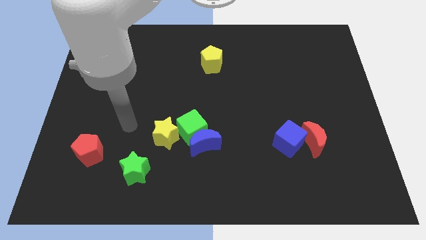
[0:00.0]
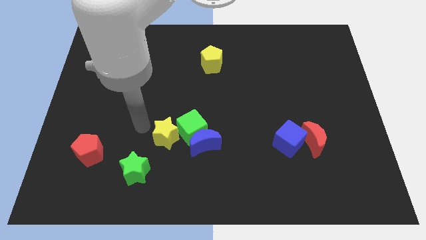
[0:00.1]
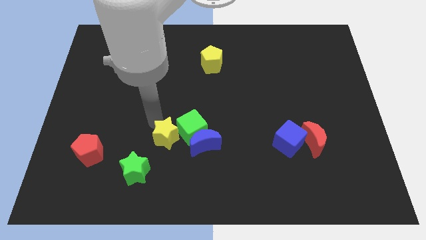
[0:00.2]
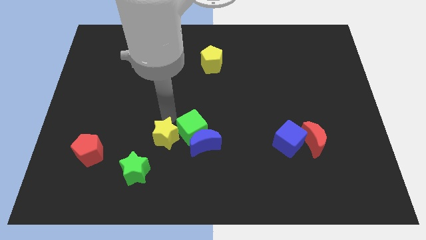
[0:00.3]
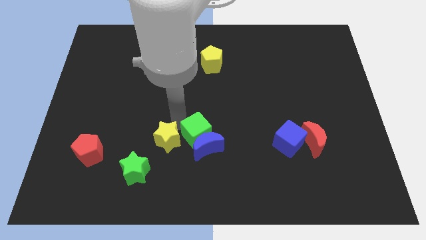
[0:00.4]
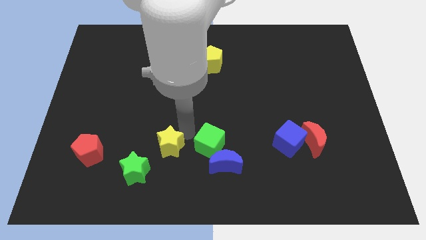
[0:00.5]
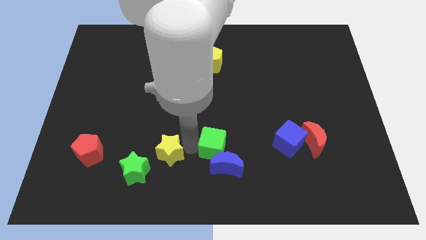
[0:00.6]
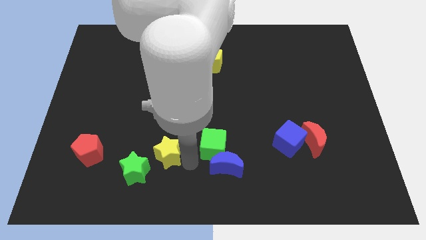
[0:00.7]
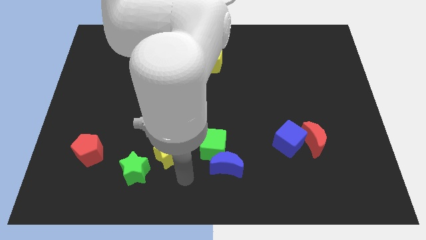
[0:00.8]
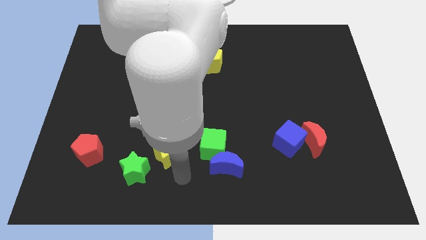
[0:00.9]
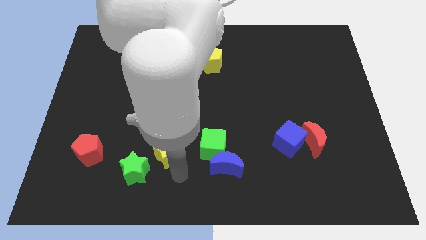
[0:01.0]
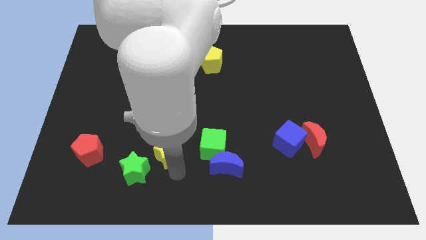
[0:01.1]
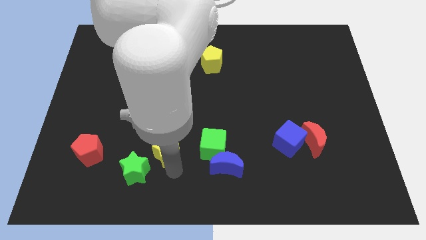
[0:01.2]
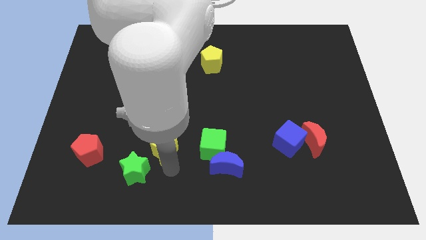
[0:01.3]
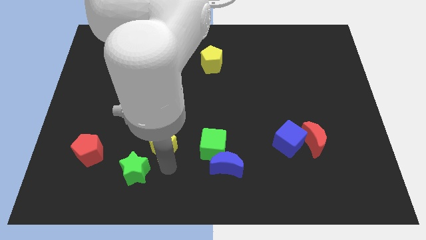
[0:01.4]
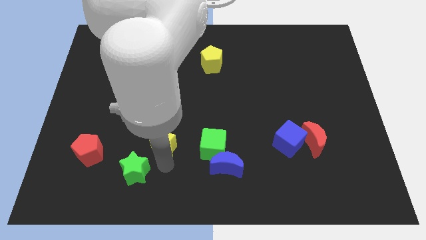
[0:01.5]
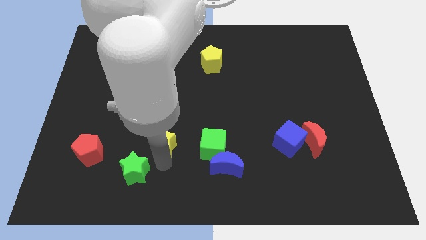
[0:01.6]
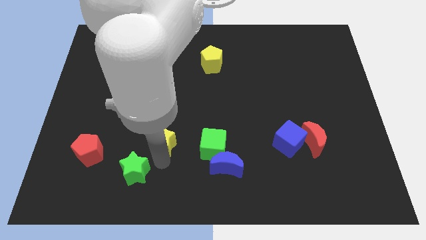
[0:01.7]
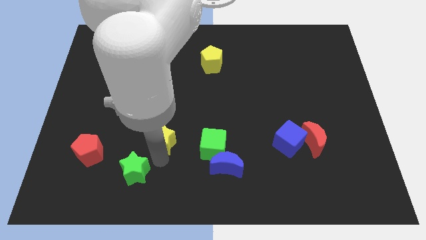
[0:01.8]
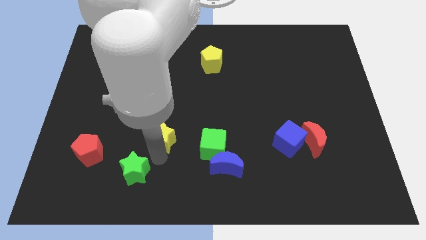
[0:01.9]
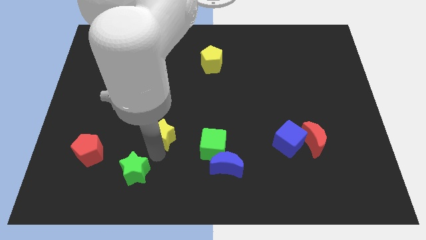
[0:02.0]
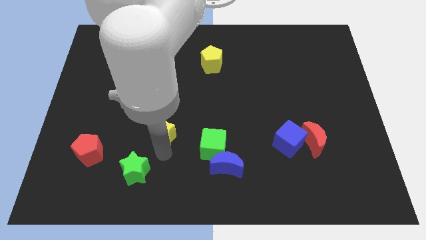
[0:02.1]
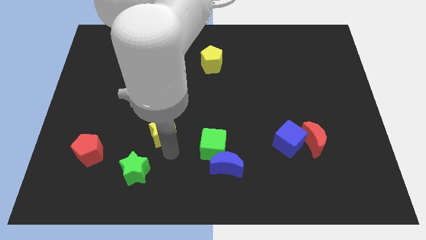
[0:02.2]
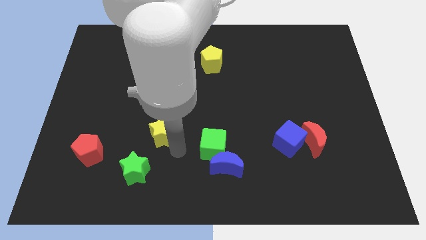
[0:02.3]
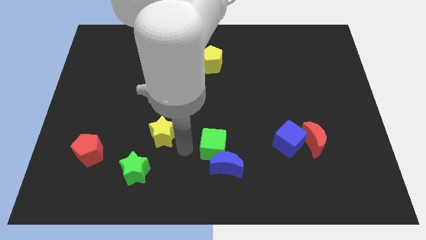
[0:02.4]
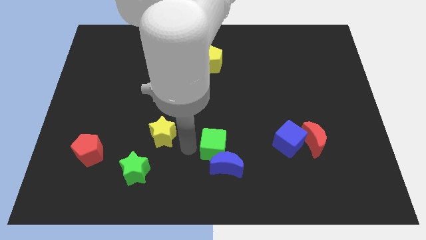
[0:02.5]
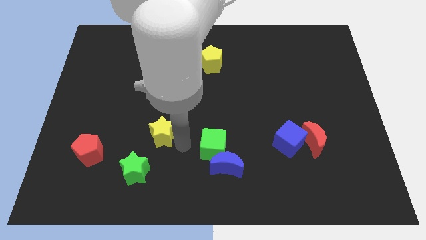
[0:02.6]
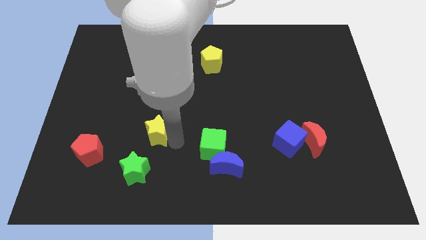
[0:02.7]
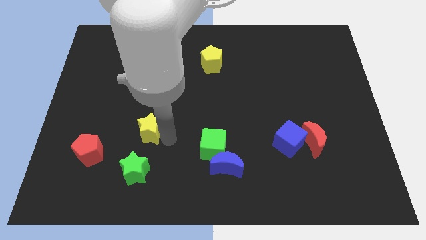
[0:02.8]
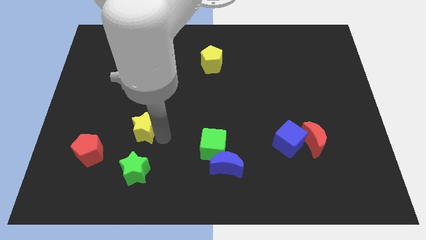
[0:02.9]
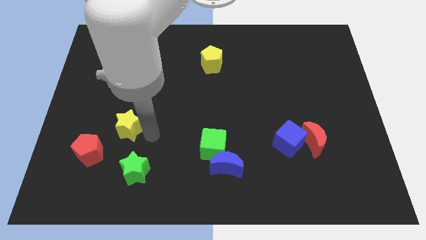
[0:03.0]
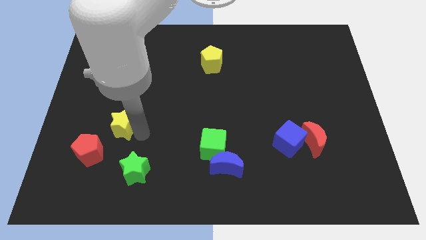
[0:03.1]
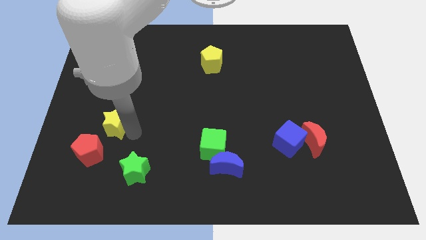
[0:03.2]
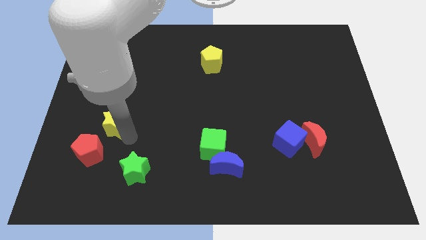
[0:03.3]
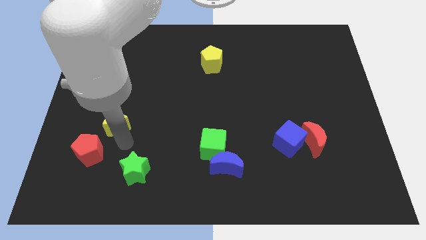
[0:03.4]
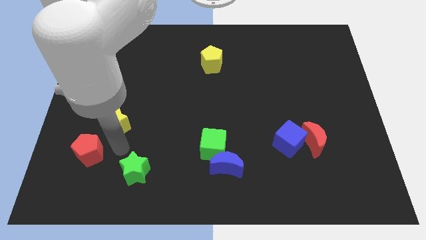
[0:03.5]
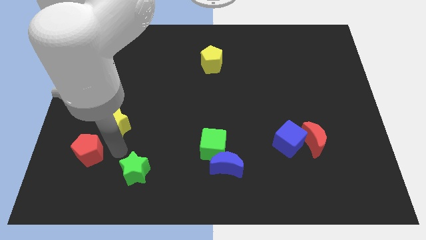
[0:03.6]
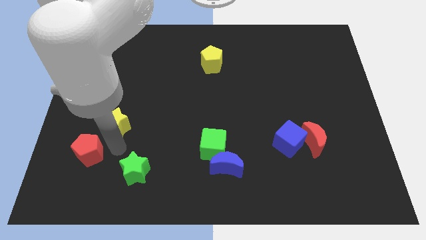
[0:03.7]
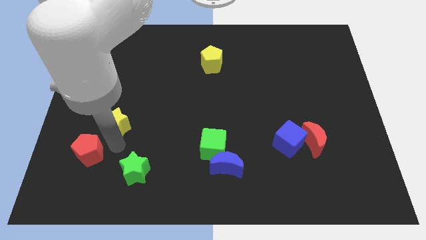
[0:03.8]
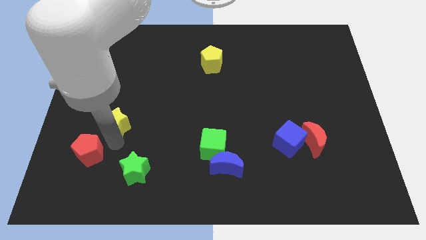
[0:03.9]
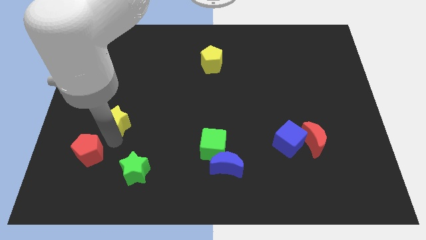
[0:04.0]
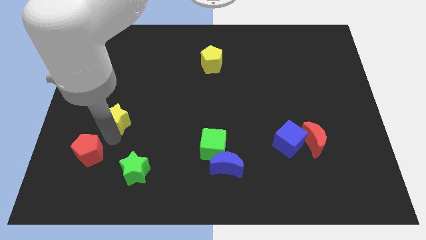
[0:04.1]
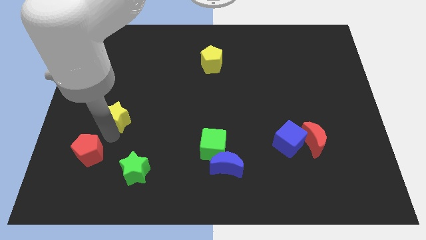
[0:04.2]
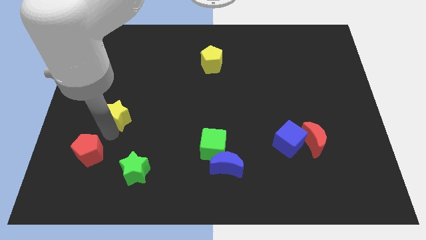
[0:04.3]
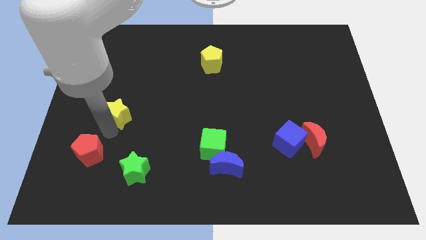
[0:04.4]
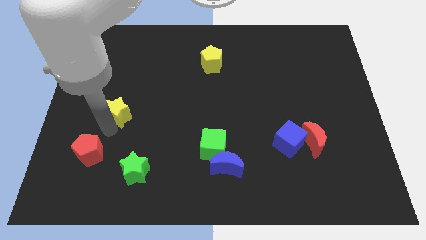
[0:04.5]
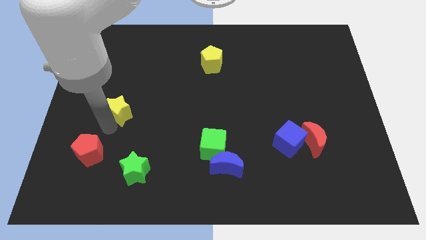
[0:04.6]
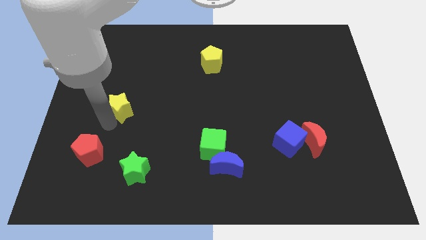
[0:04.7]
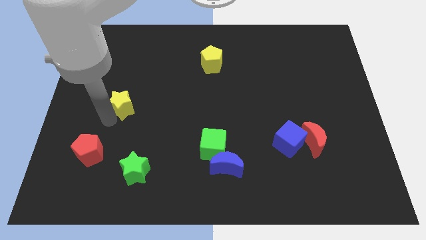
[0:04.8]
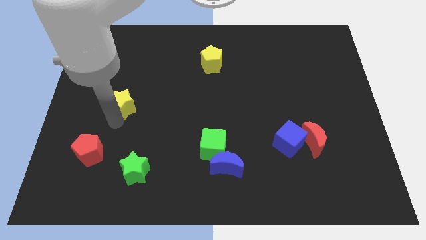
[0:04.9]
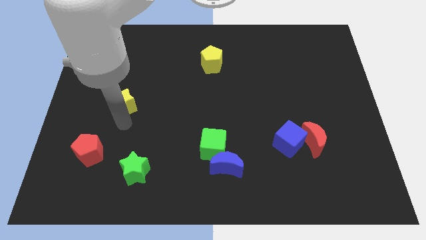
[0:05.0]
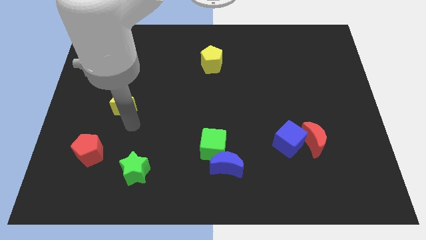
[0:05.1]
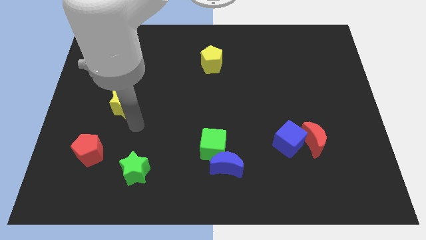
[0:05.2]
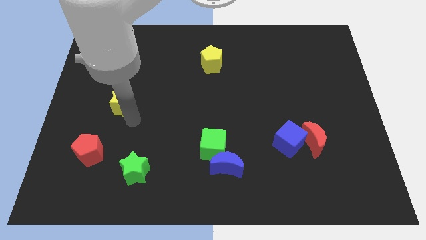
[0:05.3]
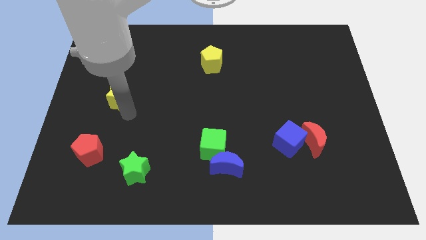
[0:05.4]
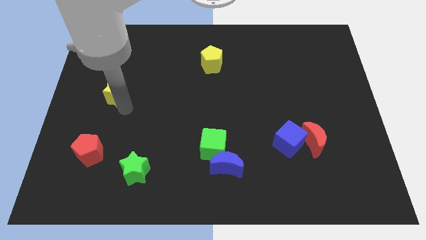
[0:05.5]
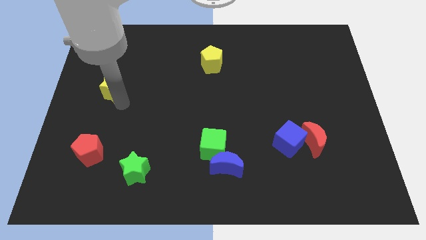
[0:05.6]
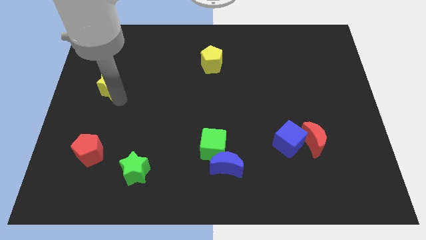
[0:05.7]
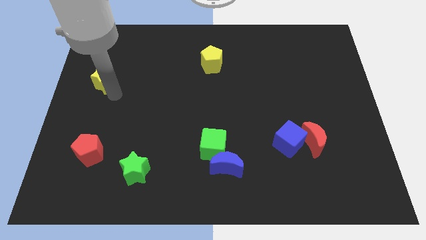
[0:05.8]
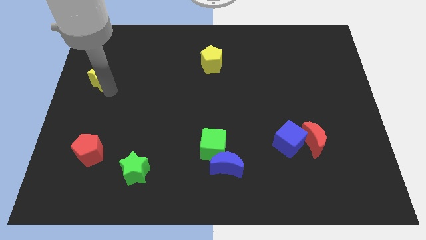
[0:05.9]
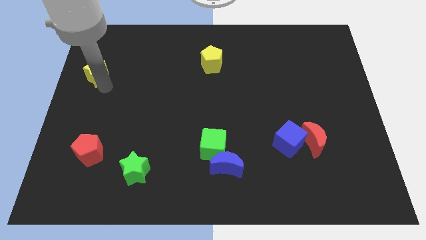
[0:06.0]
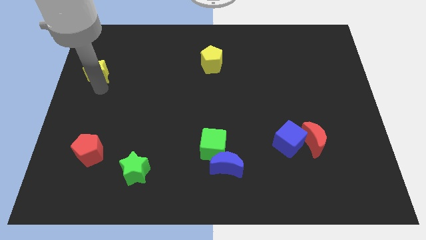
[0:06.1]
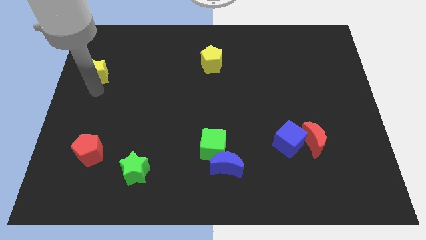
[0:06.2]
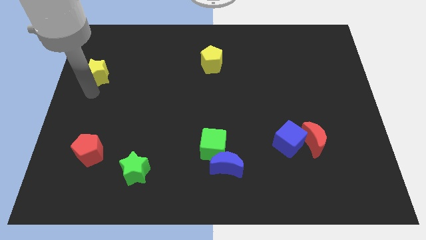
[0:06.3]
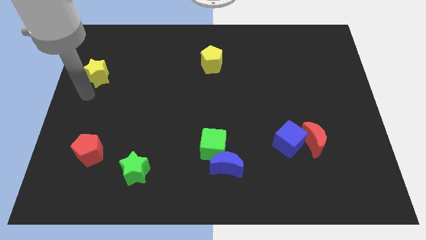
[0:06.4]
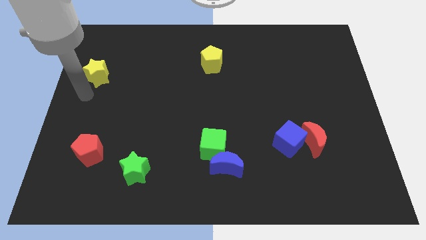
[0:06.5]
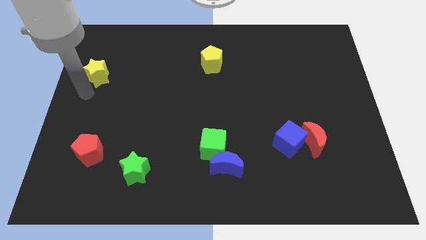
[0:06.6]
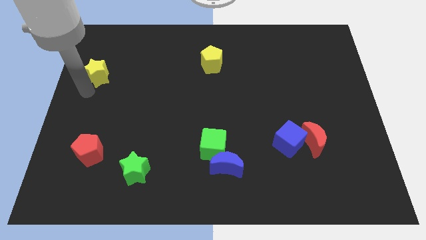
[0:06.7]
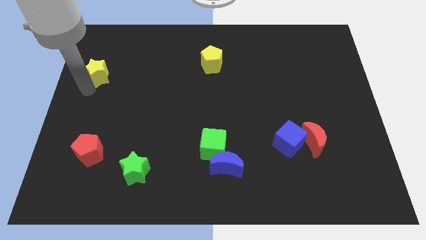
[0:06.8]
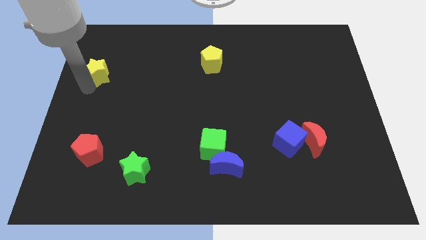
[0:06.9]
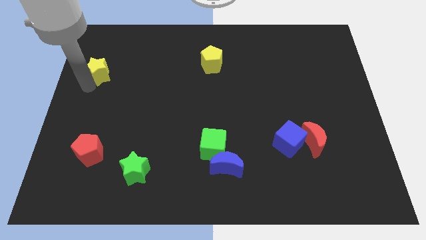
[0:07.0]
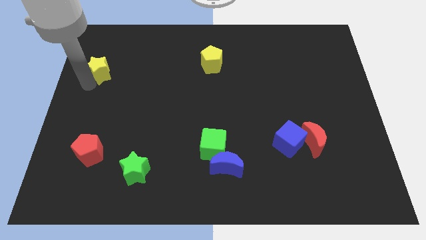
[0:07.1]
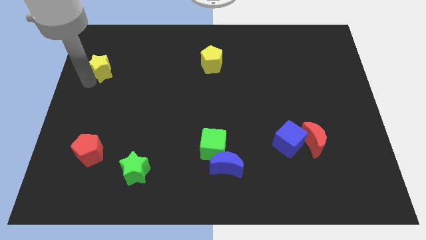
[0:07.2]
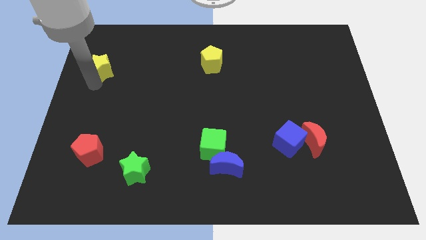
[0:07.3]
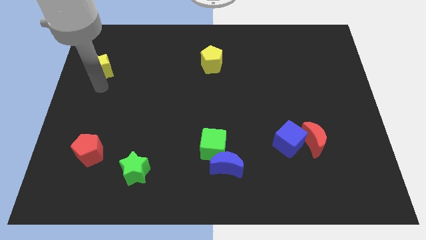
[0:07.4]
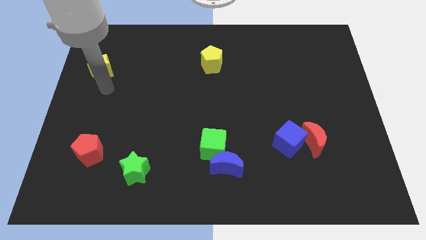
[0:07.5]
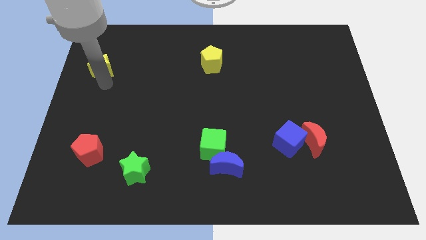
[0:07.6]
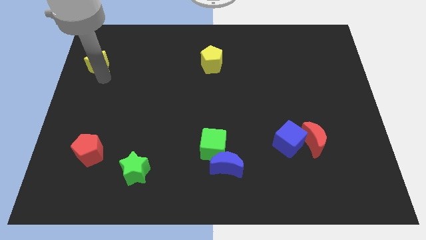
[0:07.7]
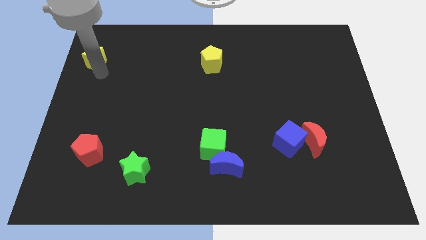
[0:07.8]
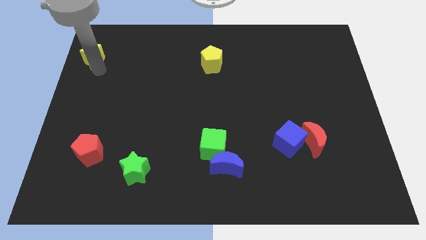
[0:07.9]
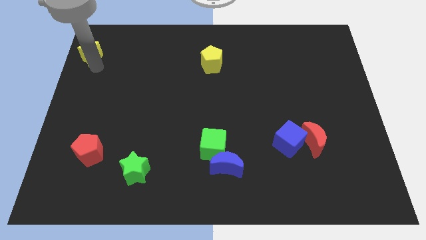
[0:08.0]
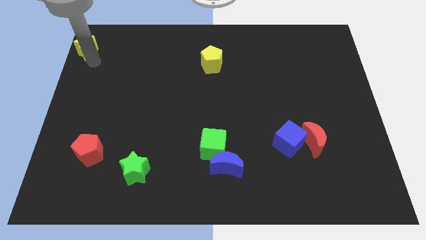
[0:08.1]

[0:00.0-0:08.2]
slide the yellow star to the top left of the board
